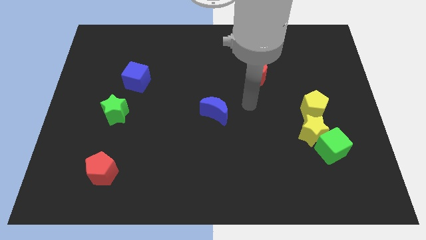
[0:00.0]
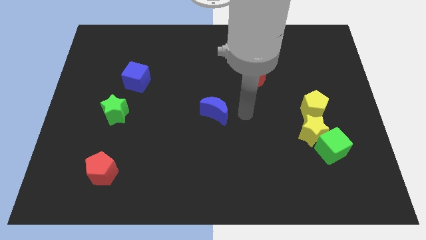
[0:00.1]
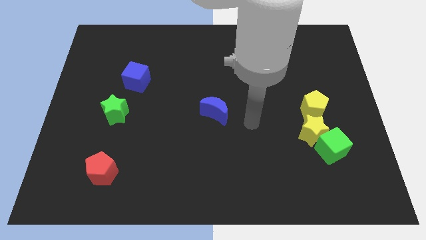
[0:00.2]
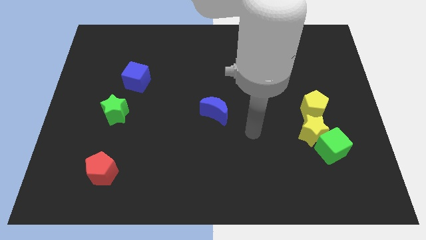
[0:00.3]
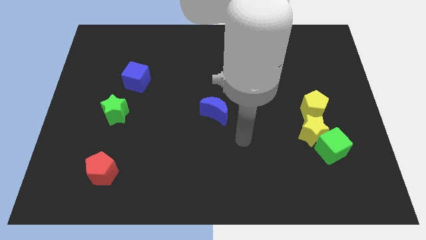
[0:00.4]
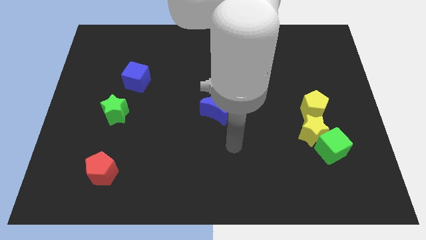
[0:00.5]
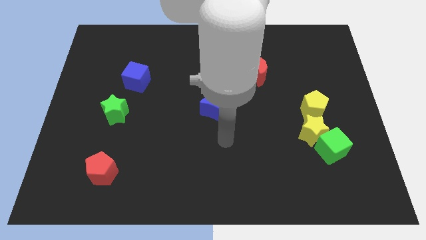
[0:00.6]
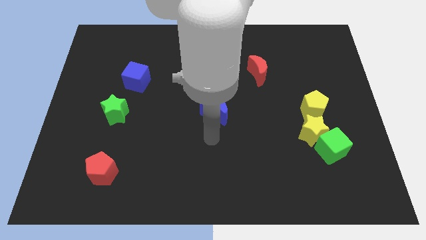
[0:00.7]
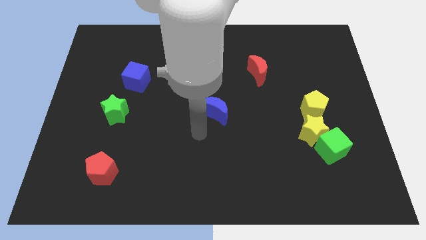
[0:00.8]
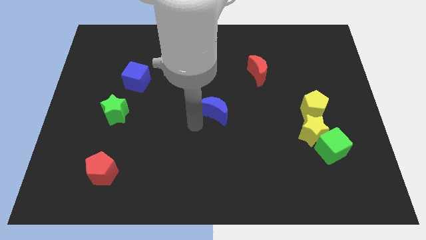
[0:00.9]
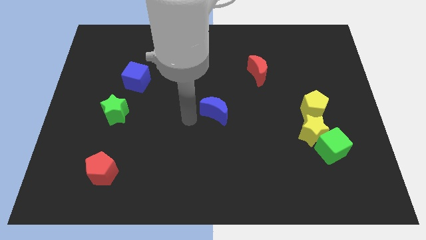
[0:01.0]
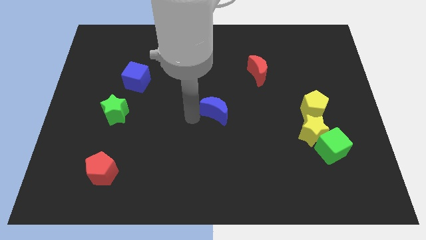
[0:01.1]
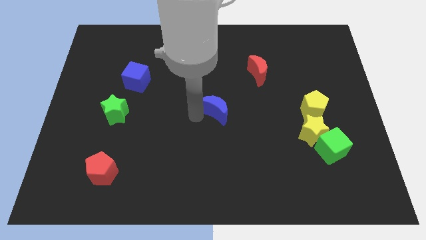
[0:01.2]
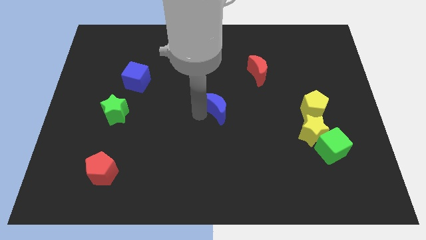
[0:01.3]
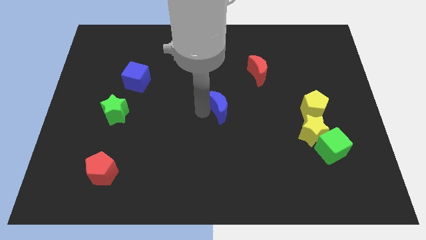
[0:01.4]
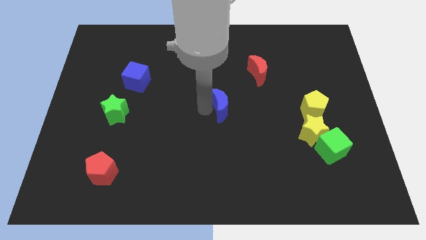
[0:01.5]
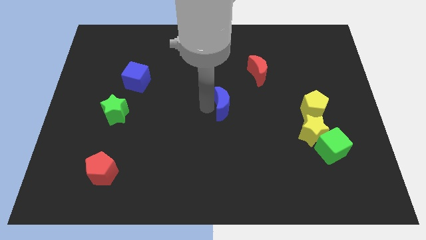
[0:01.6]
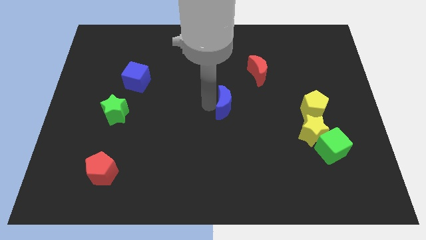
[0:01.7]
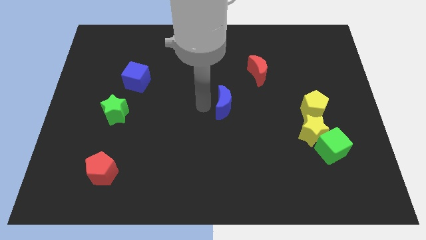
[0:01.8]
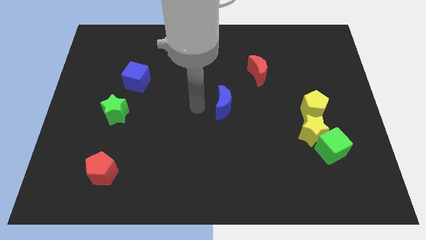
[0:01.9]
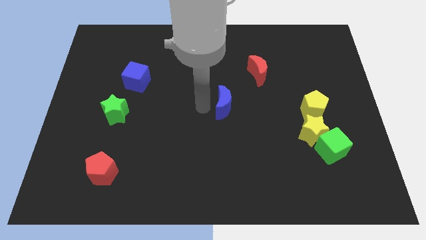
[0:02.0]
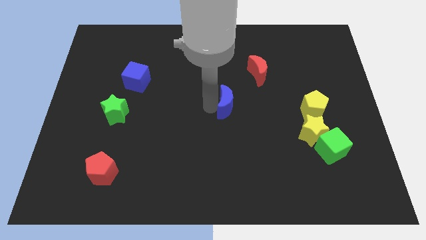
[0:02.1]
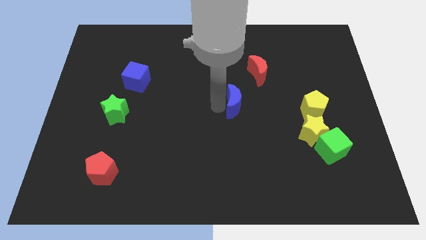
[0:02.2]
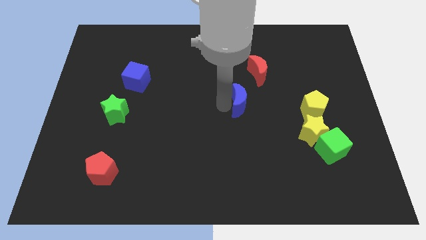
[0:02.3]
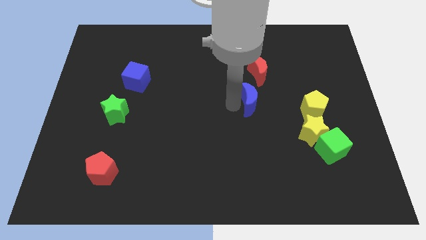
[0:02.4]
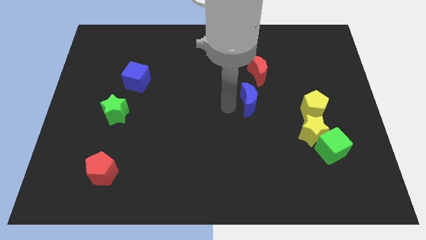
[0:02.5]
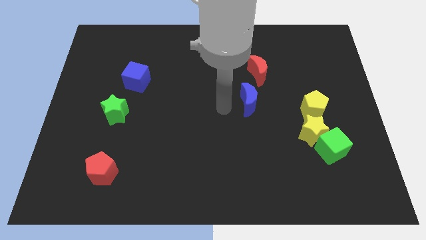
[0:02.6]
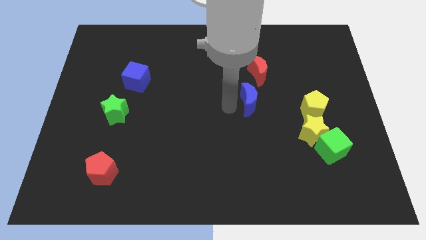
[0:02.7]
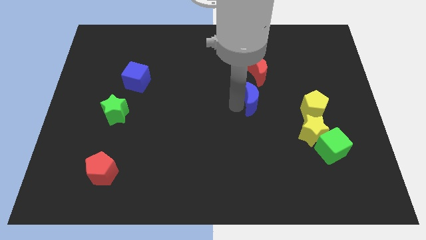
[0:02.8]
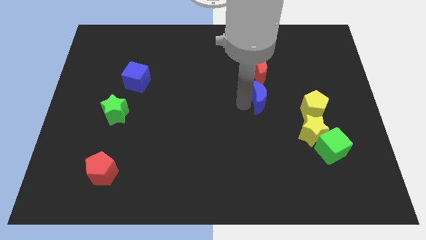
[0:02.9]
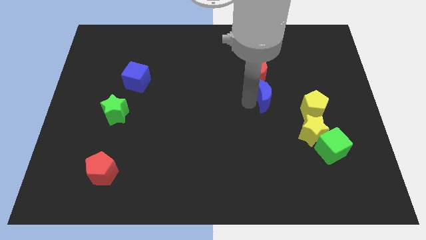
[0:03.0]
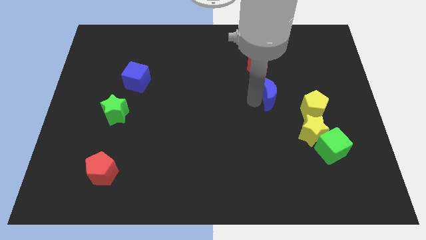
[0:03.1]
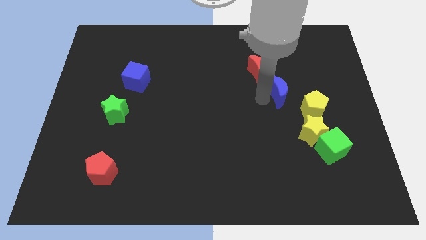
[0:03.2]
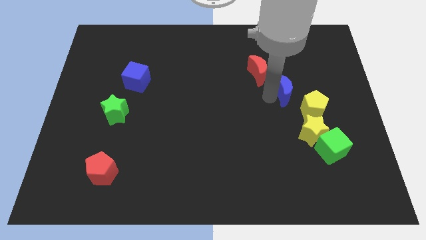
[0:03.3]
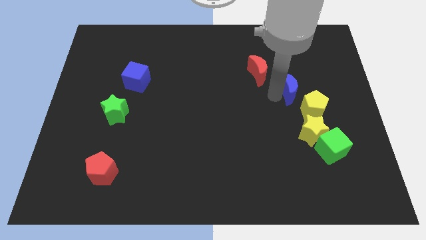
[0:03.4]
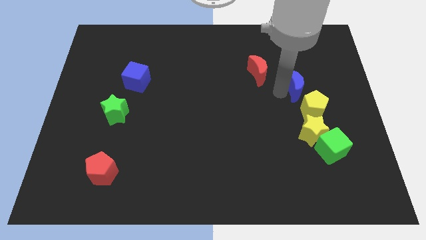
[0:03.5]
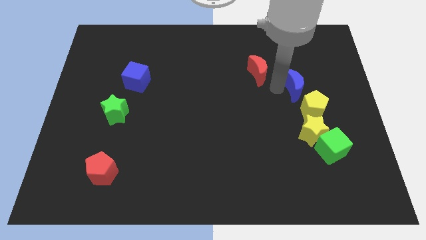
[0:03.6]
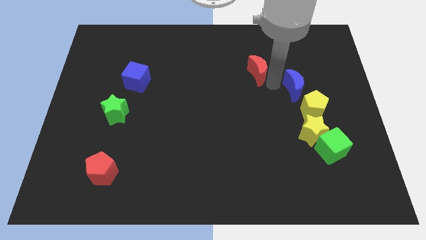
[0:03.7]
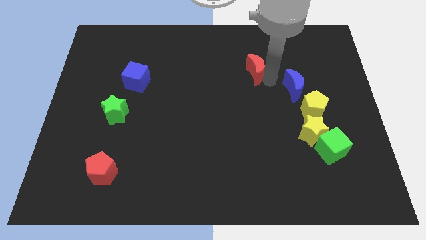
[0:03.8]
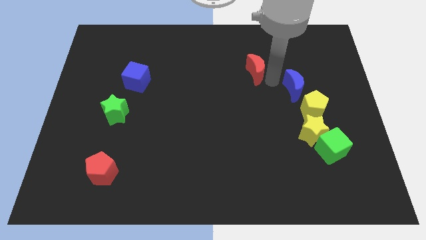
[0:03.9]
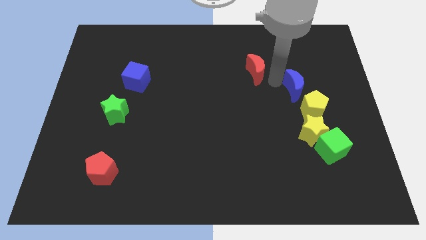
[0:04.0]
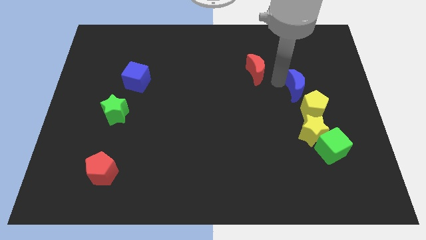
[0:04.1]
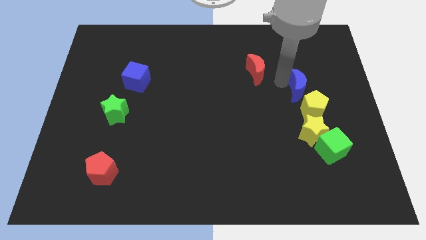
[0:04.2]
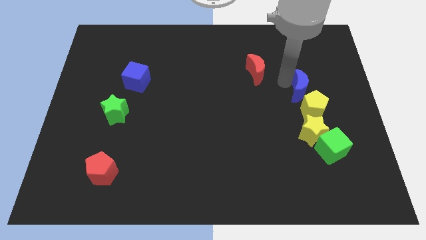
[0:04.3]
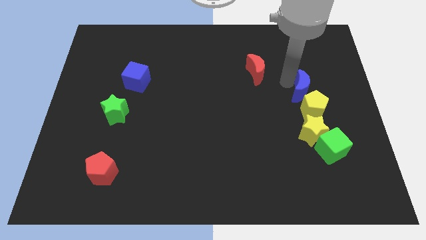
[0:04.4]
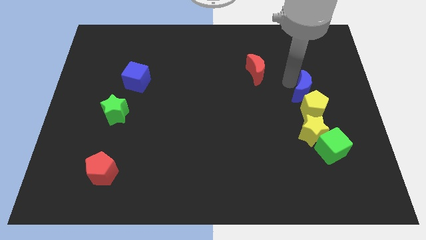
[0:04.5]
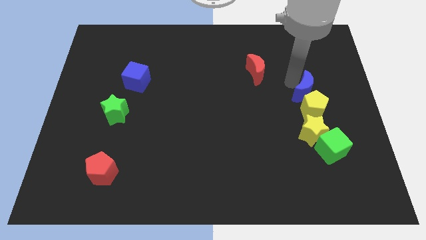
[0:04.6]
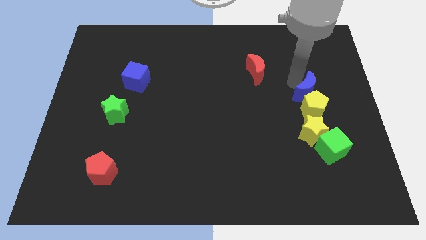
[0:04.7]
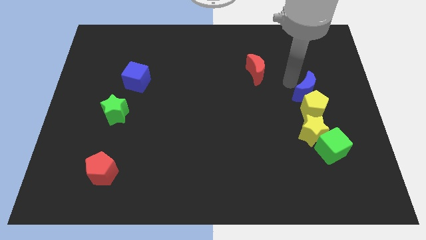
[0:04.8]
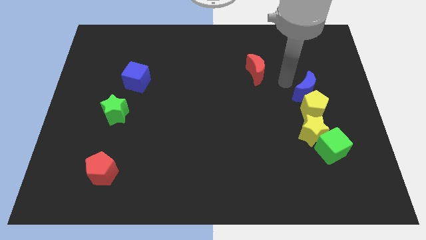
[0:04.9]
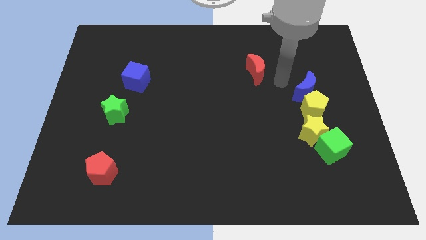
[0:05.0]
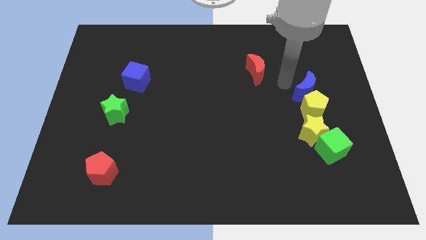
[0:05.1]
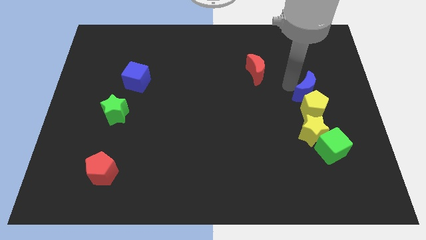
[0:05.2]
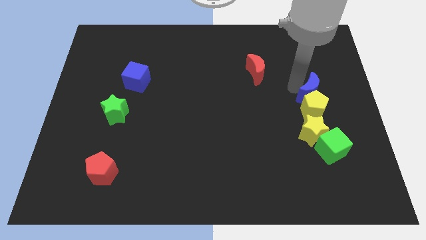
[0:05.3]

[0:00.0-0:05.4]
push the blue moon to the top side of the green cube

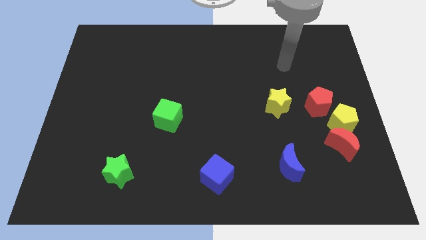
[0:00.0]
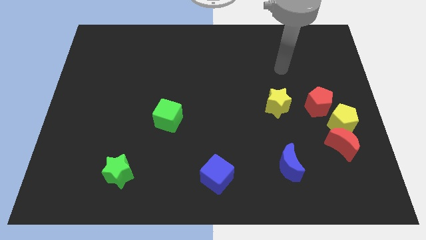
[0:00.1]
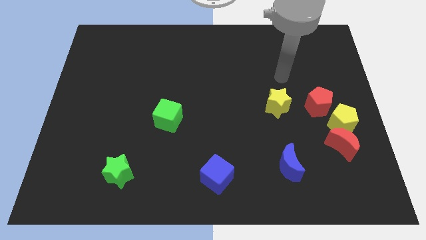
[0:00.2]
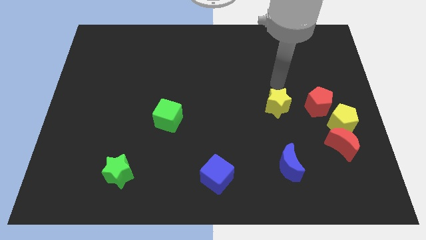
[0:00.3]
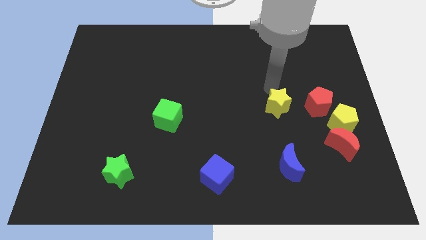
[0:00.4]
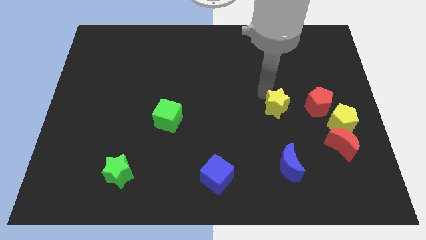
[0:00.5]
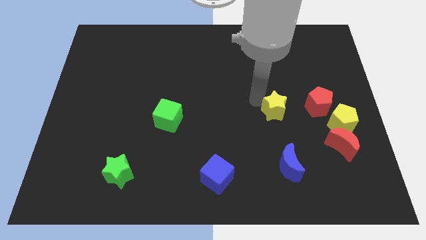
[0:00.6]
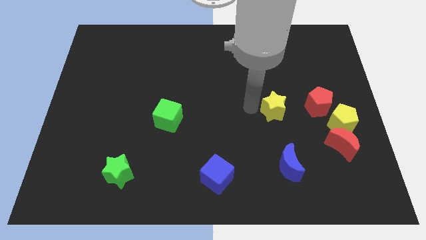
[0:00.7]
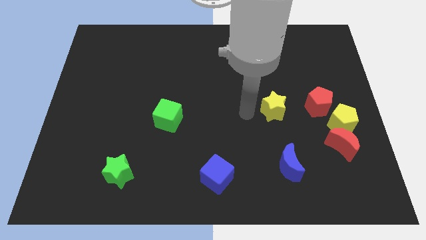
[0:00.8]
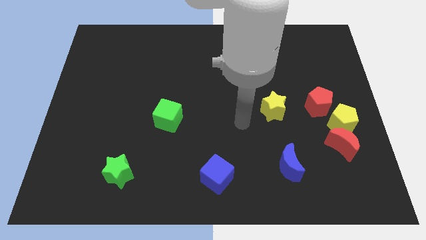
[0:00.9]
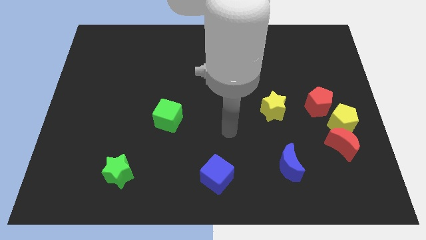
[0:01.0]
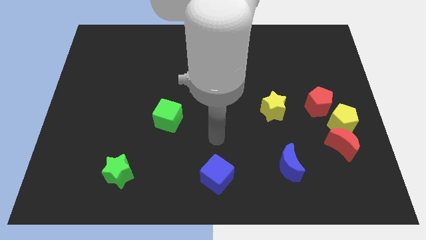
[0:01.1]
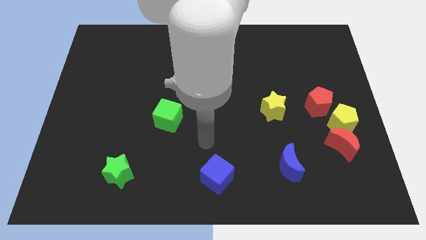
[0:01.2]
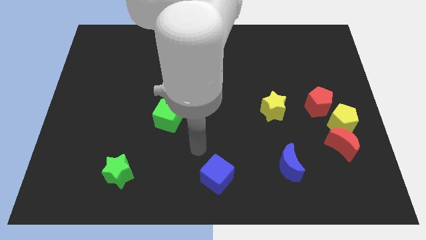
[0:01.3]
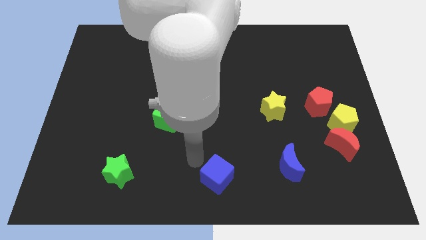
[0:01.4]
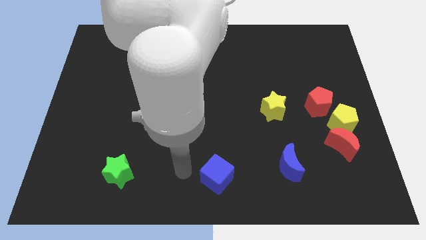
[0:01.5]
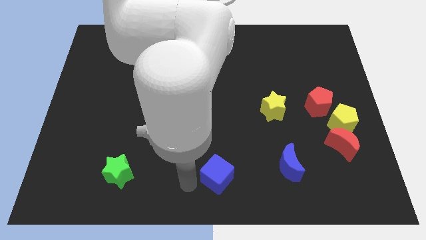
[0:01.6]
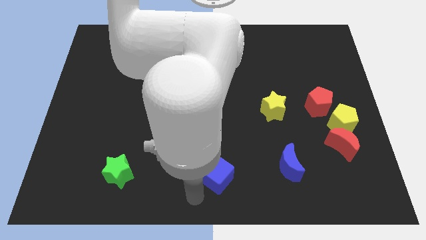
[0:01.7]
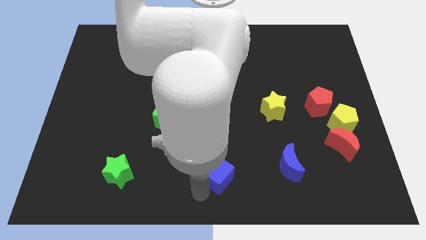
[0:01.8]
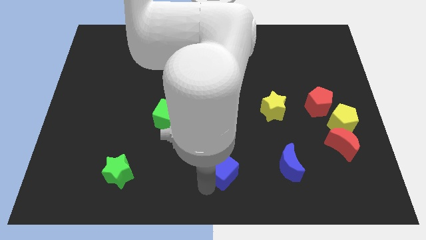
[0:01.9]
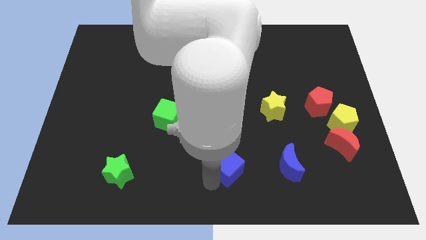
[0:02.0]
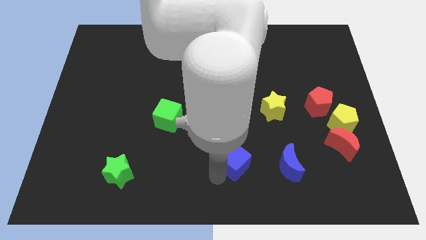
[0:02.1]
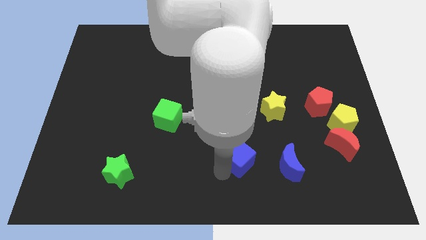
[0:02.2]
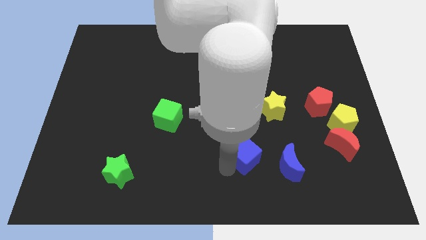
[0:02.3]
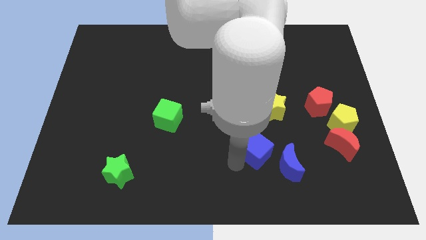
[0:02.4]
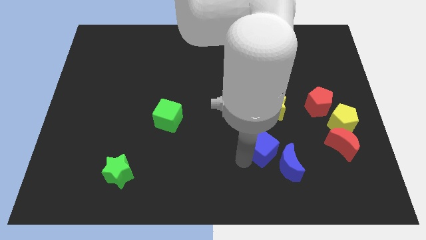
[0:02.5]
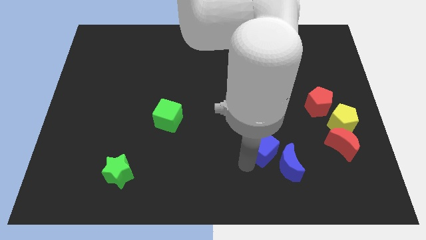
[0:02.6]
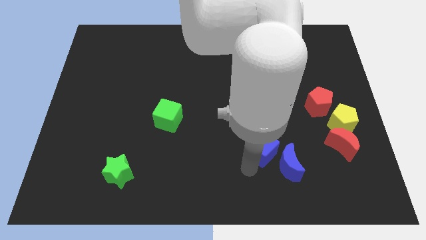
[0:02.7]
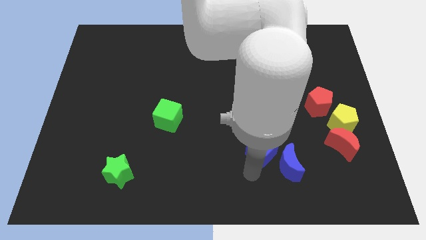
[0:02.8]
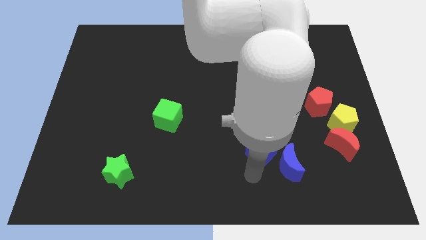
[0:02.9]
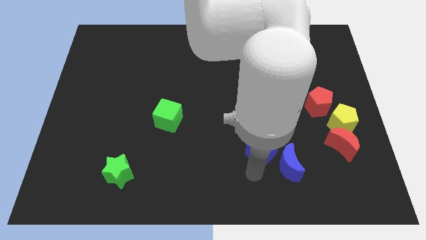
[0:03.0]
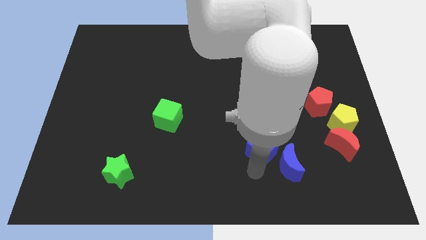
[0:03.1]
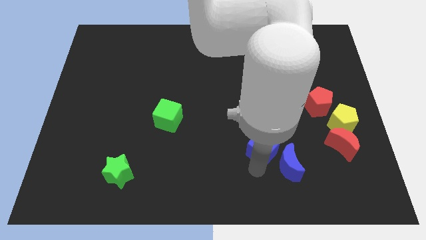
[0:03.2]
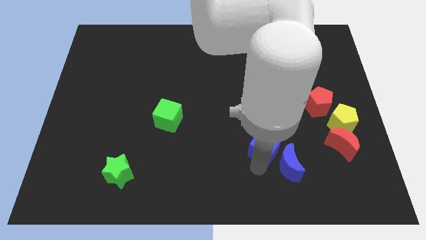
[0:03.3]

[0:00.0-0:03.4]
put the blue cube to the top of the blue moon
